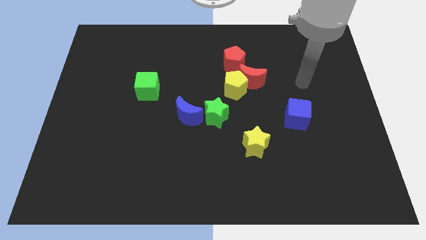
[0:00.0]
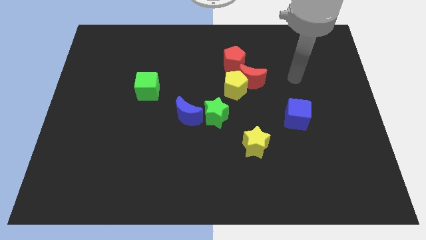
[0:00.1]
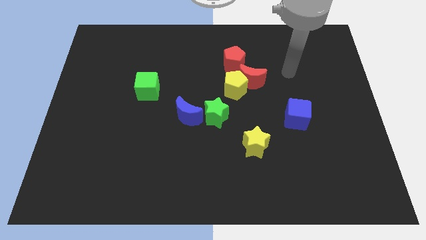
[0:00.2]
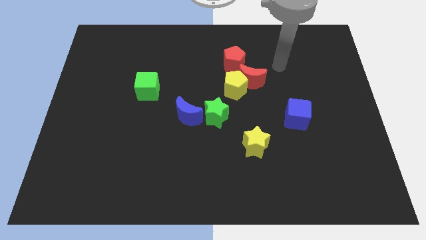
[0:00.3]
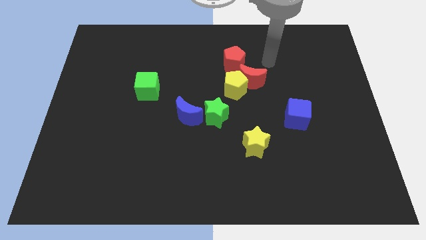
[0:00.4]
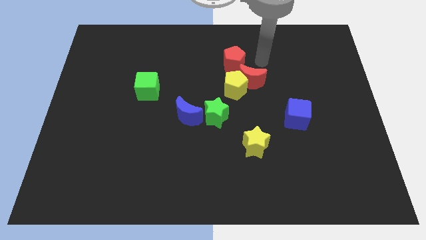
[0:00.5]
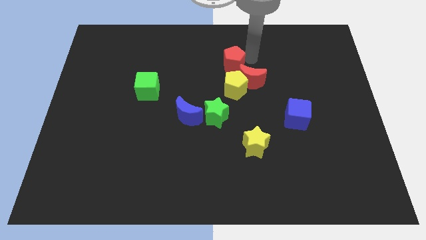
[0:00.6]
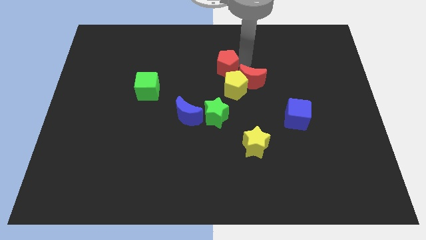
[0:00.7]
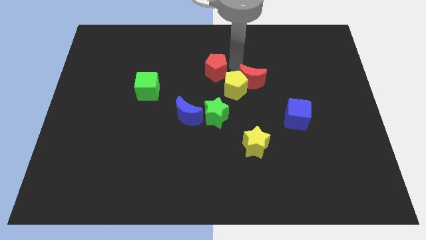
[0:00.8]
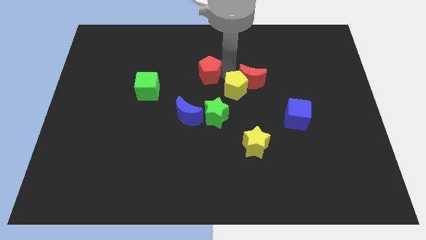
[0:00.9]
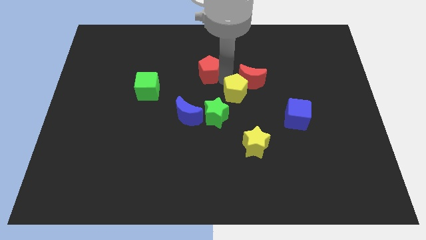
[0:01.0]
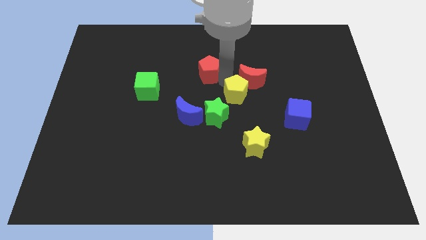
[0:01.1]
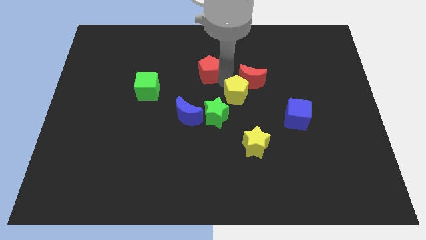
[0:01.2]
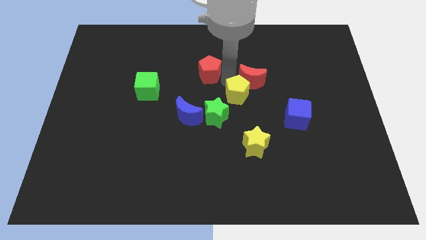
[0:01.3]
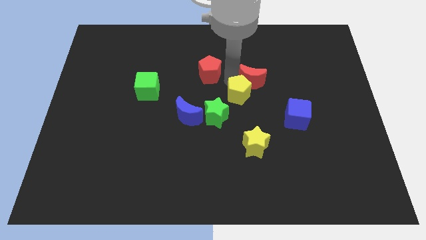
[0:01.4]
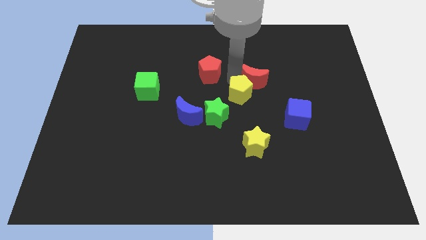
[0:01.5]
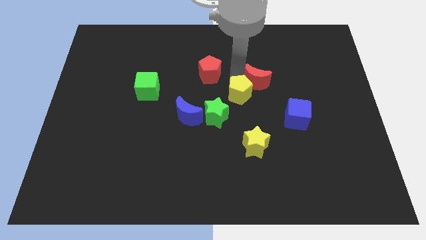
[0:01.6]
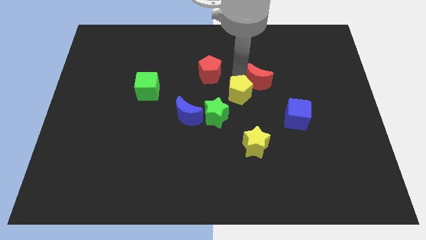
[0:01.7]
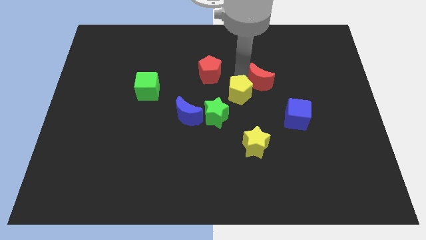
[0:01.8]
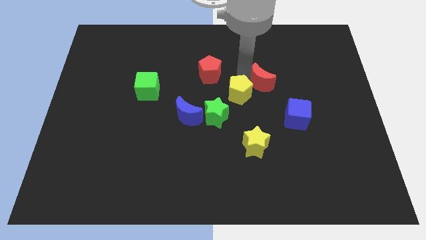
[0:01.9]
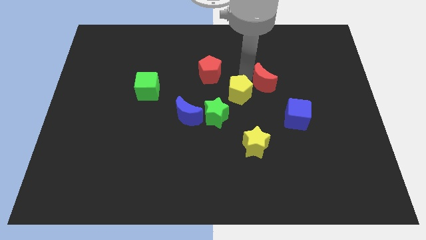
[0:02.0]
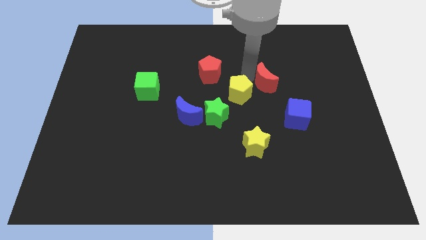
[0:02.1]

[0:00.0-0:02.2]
move the red moon away from the yellow pentagon and red pentagon

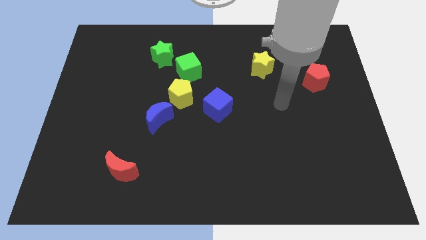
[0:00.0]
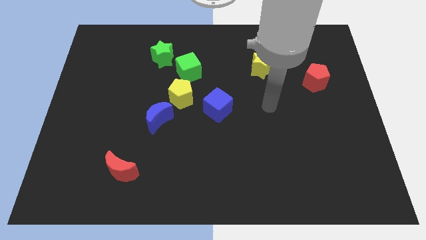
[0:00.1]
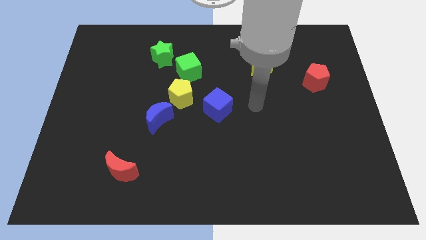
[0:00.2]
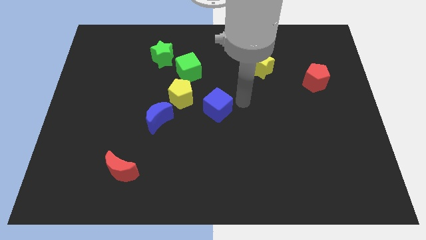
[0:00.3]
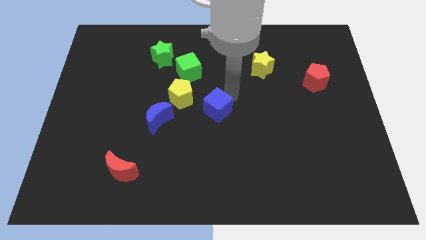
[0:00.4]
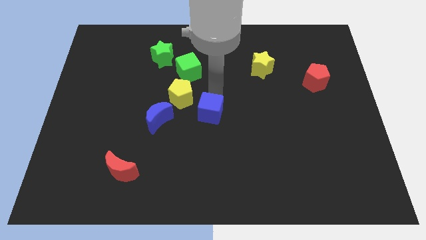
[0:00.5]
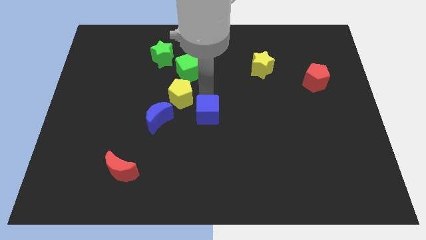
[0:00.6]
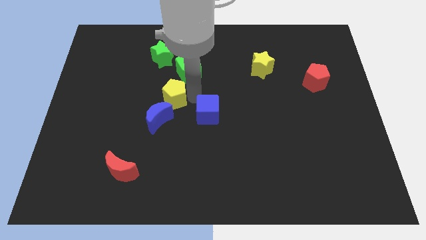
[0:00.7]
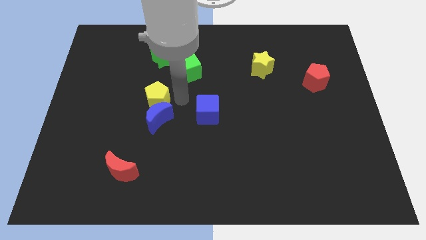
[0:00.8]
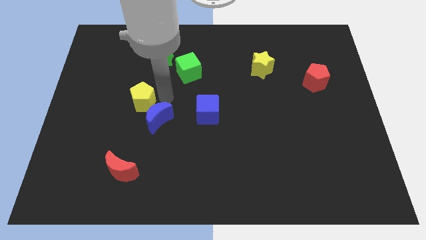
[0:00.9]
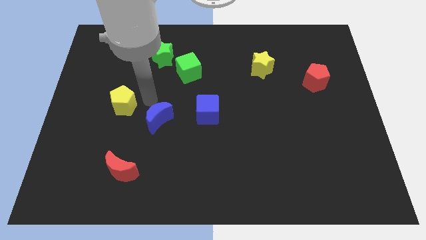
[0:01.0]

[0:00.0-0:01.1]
separate the blue moon from the yellow pentagon

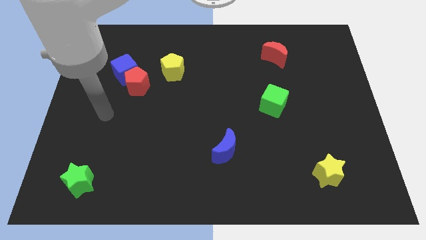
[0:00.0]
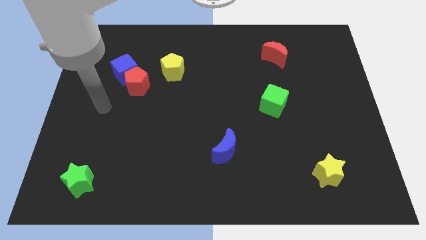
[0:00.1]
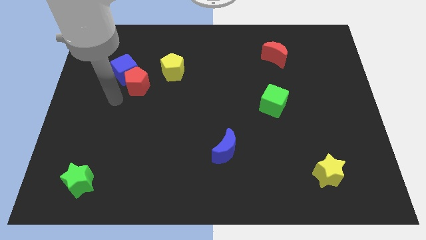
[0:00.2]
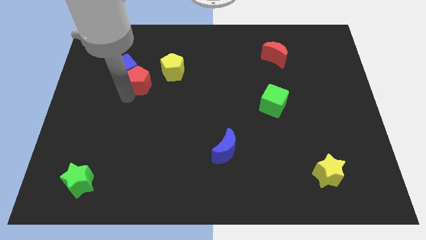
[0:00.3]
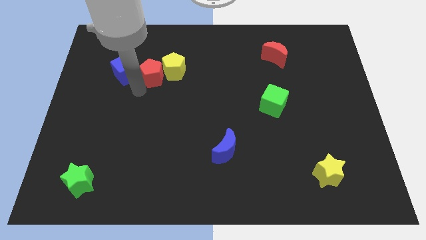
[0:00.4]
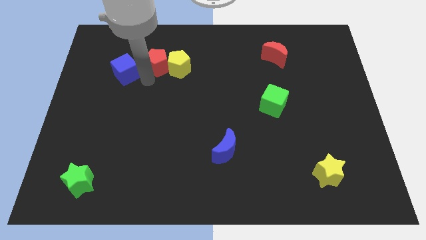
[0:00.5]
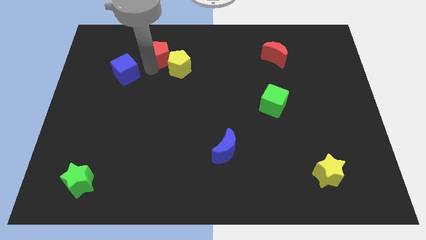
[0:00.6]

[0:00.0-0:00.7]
move the blue cube away from the red pentagon

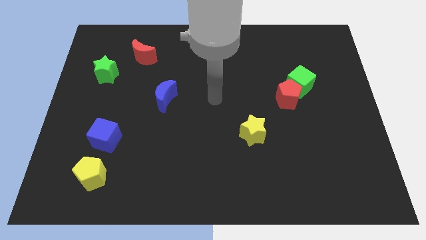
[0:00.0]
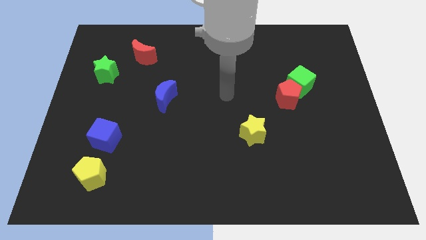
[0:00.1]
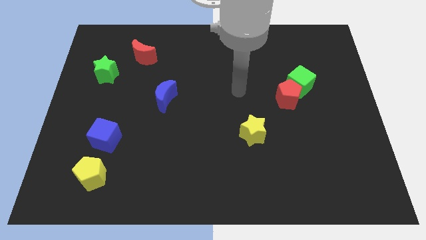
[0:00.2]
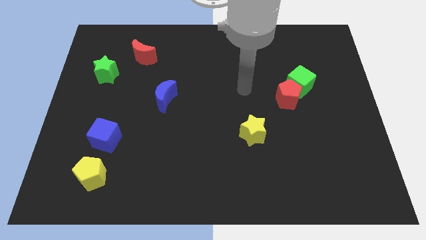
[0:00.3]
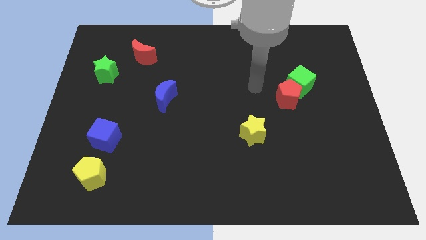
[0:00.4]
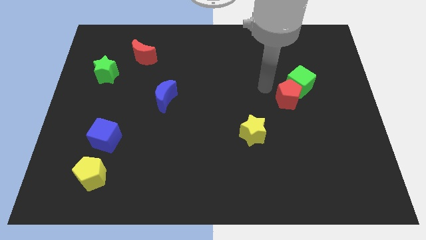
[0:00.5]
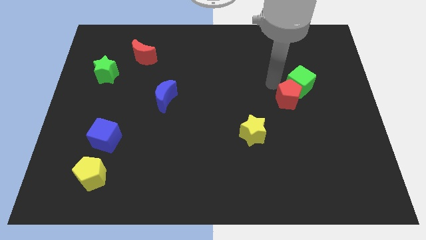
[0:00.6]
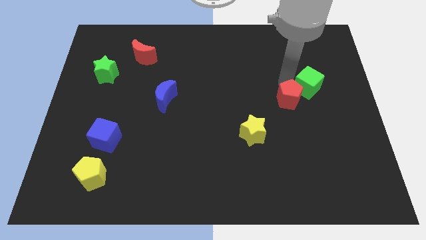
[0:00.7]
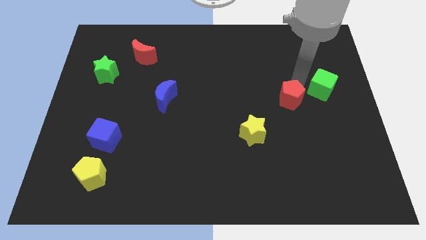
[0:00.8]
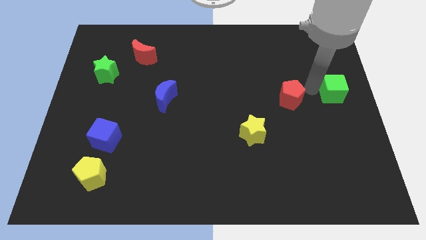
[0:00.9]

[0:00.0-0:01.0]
separate the red pentagon from the green cube

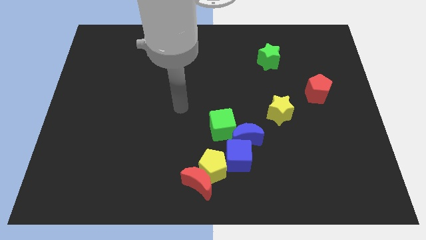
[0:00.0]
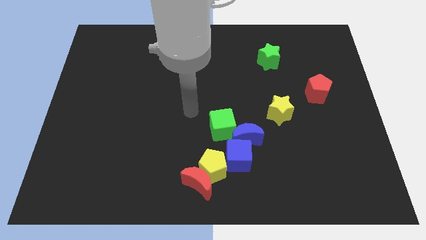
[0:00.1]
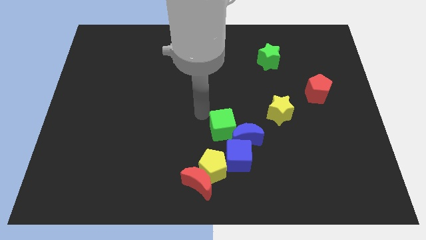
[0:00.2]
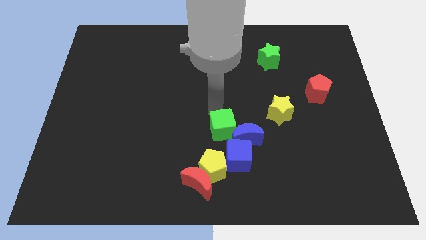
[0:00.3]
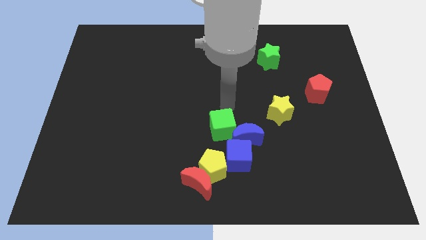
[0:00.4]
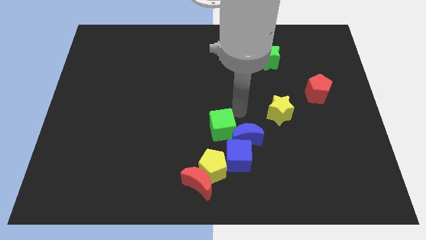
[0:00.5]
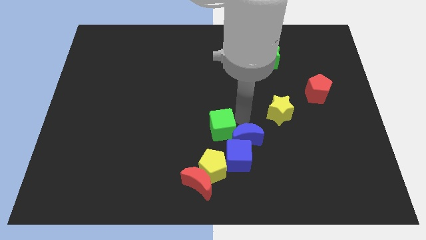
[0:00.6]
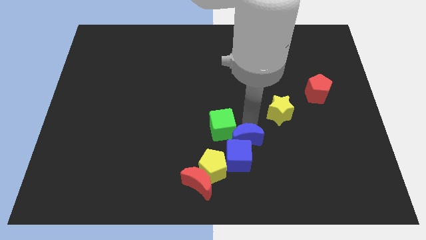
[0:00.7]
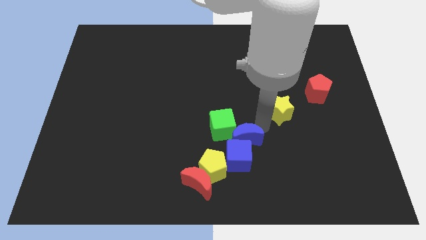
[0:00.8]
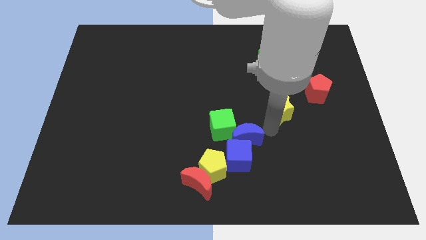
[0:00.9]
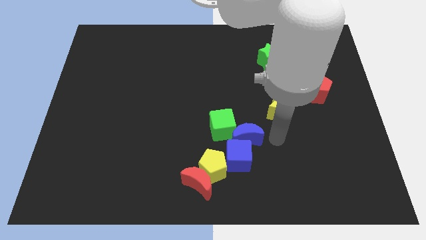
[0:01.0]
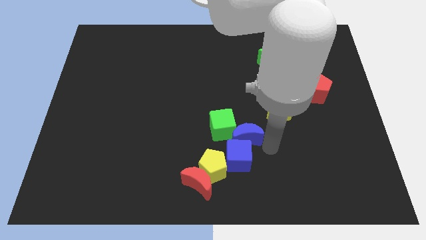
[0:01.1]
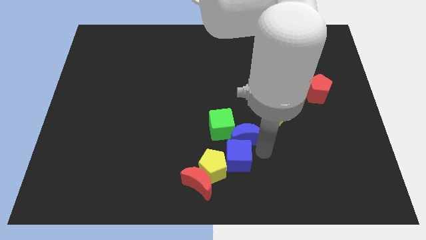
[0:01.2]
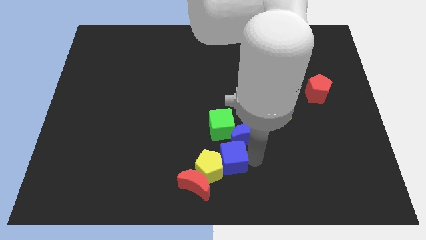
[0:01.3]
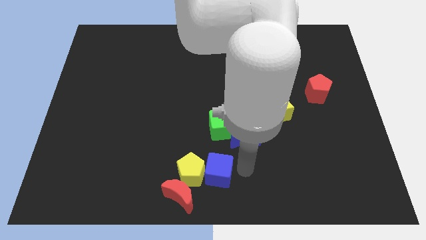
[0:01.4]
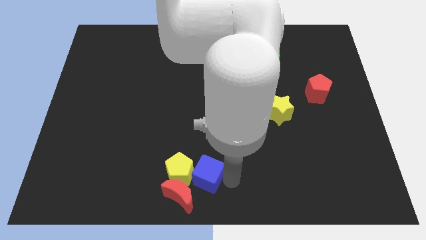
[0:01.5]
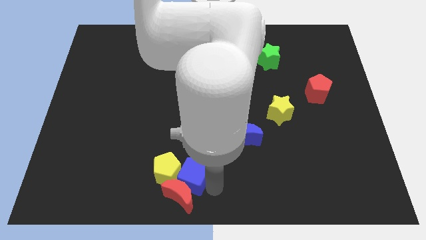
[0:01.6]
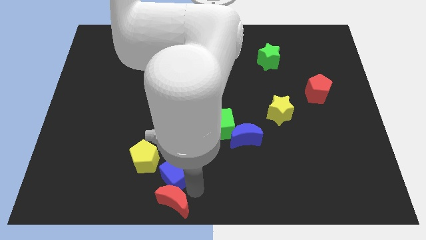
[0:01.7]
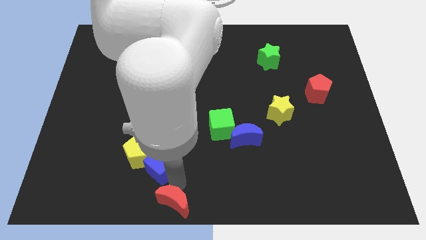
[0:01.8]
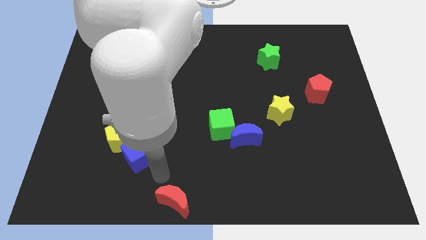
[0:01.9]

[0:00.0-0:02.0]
pull the yellow pentagon apart from the red moon and blue cube

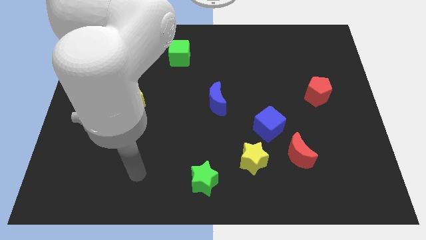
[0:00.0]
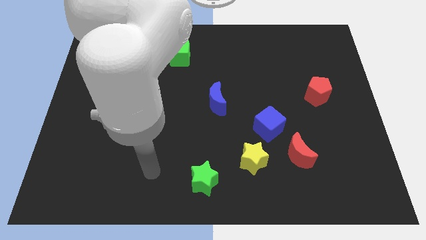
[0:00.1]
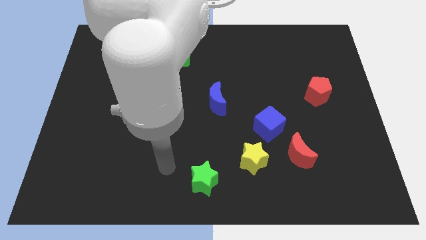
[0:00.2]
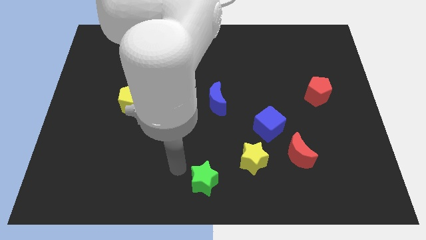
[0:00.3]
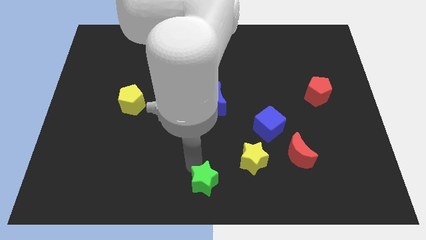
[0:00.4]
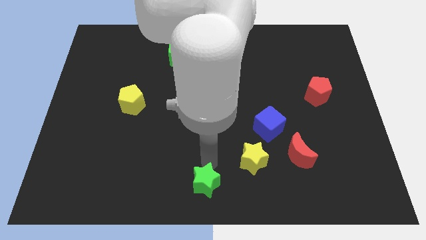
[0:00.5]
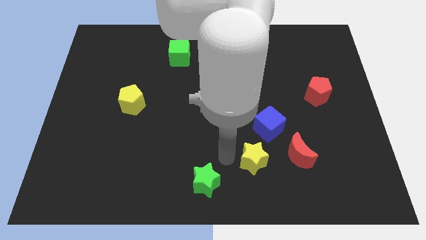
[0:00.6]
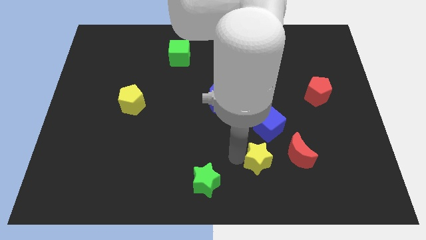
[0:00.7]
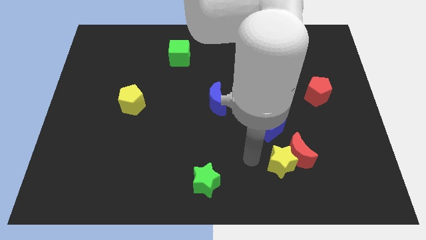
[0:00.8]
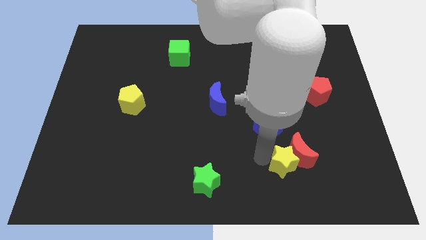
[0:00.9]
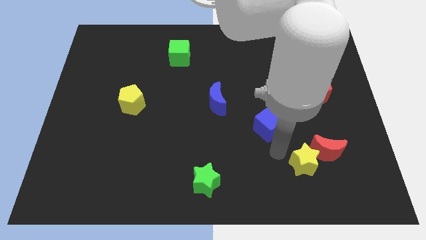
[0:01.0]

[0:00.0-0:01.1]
pull the blue cube apart from the red moon and yellow star

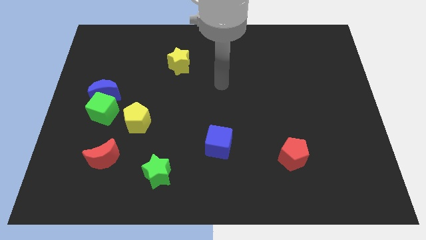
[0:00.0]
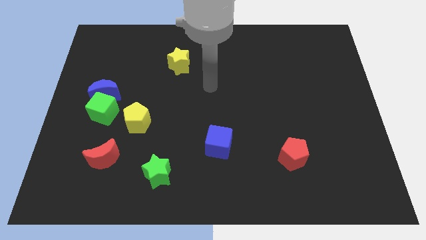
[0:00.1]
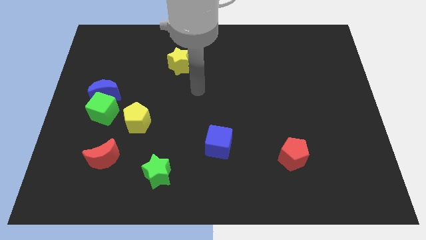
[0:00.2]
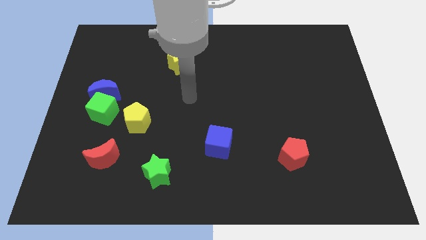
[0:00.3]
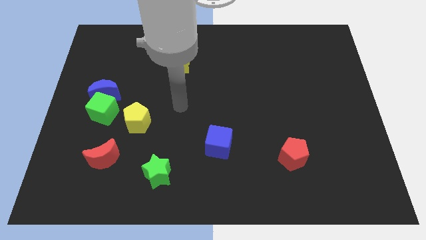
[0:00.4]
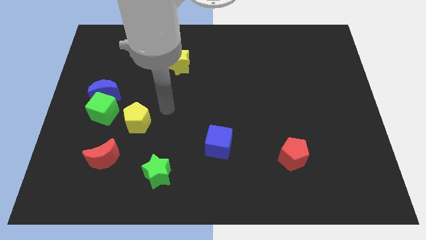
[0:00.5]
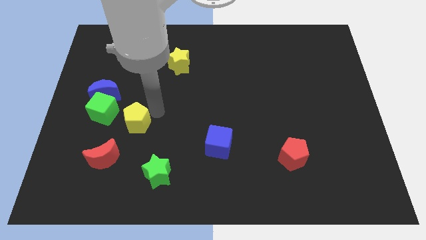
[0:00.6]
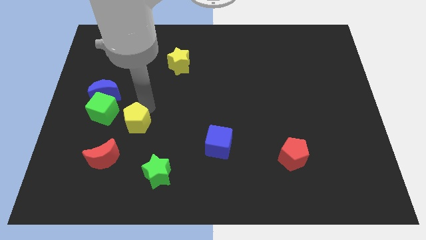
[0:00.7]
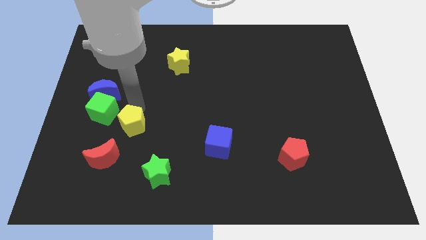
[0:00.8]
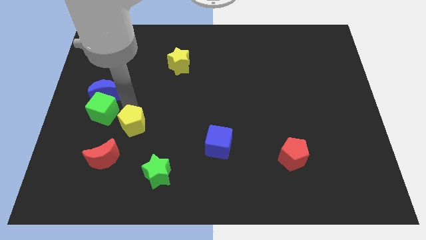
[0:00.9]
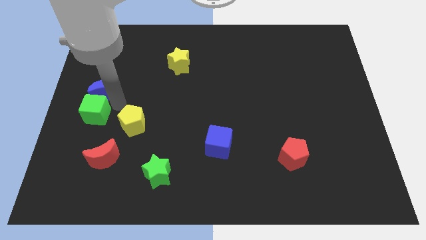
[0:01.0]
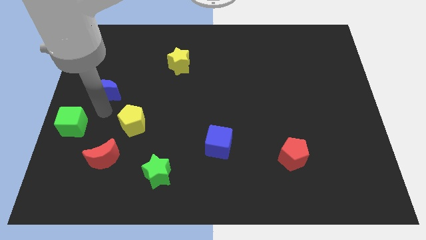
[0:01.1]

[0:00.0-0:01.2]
separate the blue moon from the green cube
